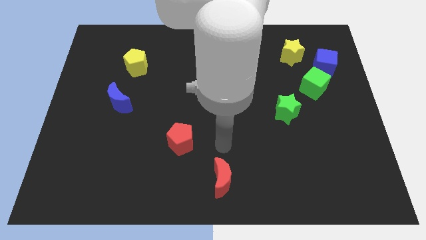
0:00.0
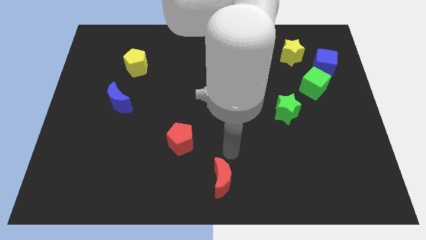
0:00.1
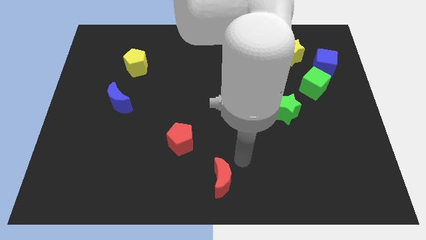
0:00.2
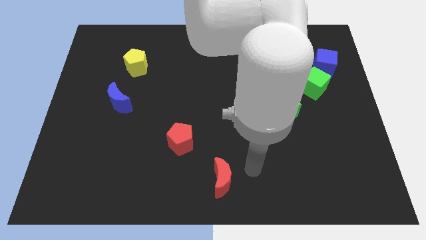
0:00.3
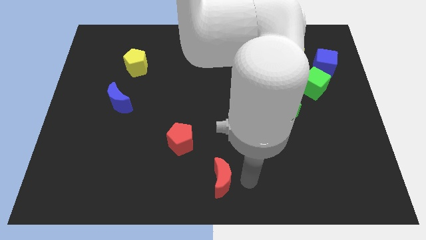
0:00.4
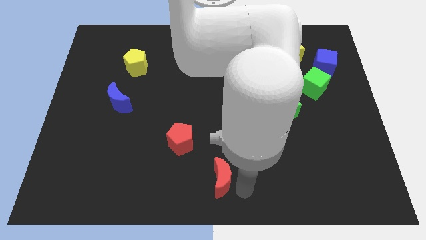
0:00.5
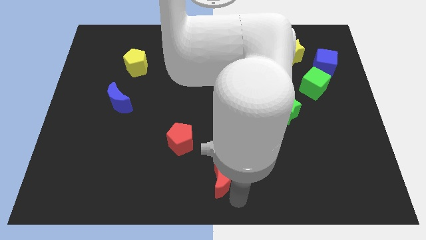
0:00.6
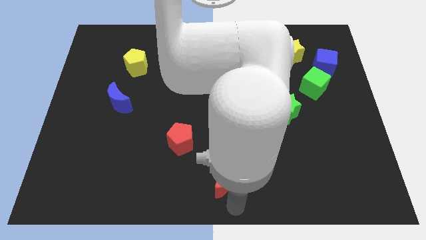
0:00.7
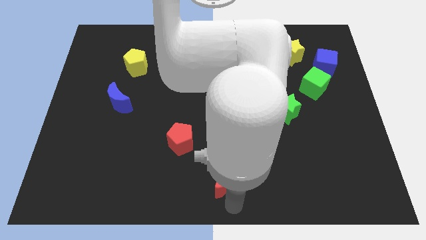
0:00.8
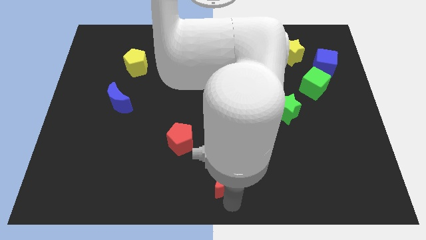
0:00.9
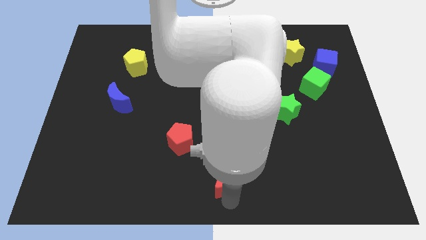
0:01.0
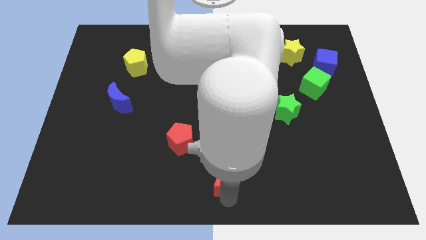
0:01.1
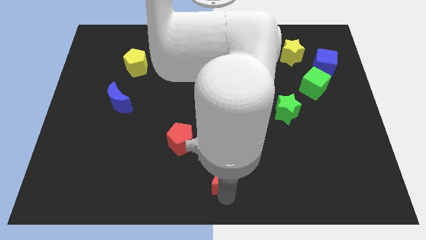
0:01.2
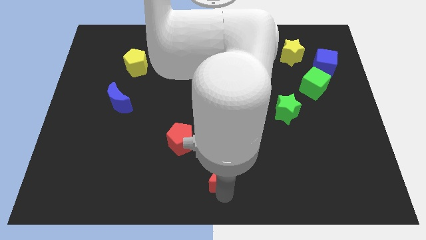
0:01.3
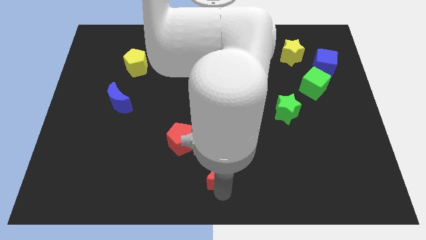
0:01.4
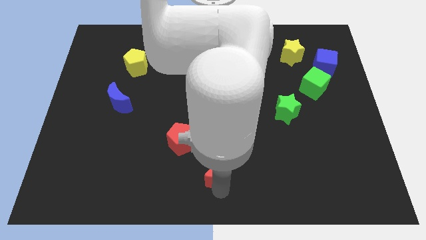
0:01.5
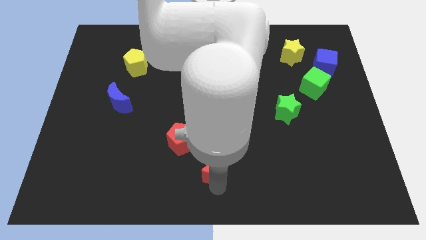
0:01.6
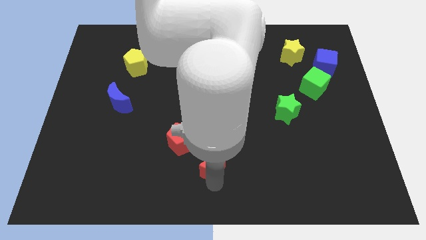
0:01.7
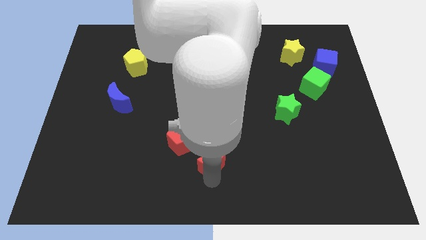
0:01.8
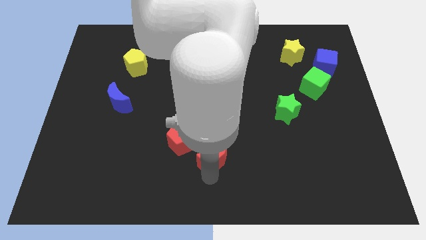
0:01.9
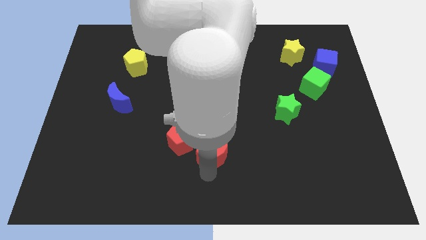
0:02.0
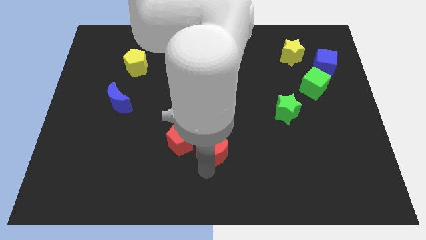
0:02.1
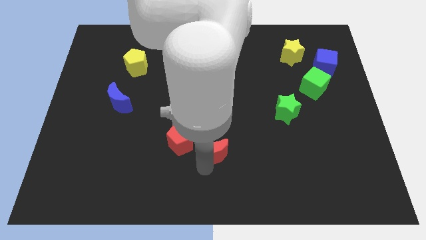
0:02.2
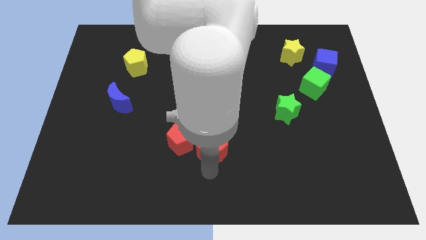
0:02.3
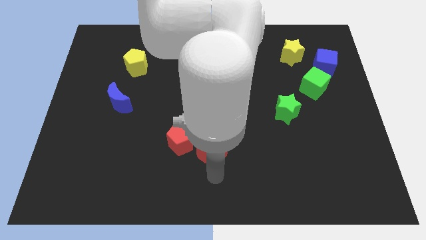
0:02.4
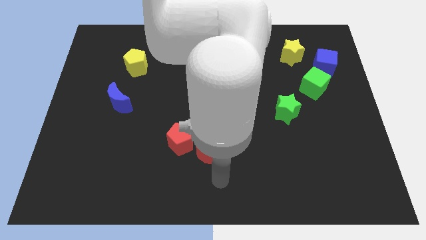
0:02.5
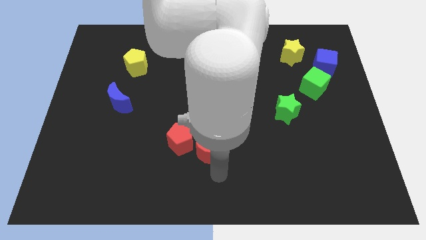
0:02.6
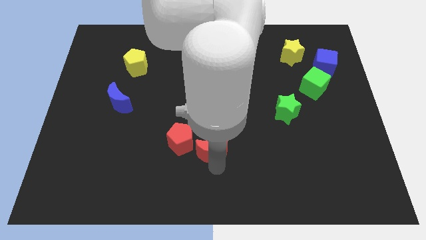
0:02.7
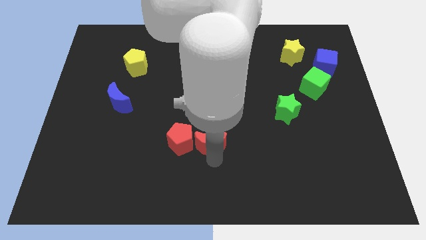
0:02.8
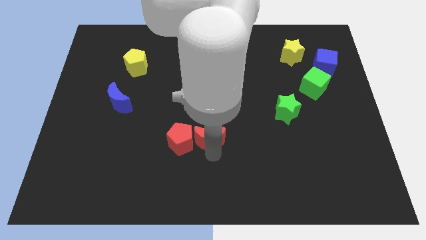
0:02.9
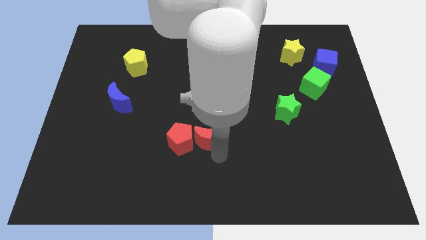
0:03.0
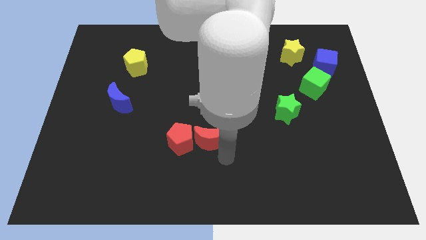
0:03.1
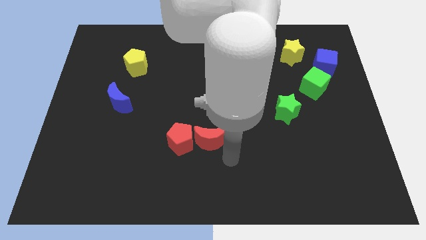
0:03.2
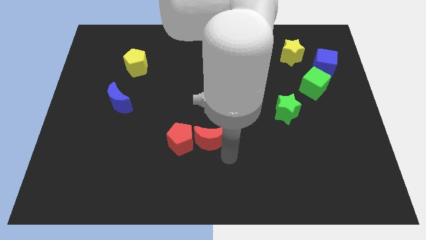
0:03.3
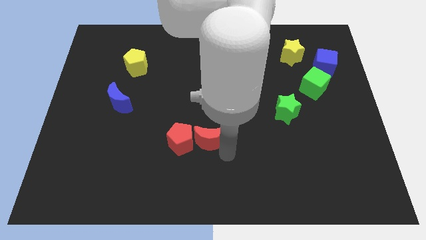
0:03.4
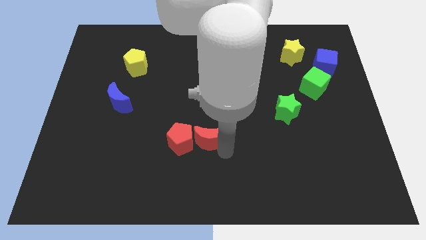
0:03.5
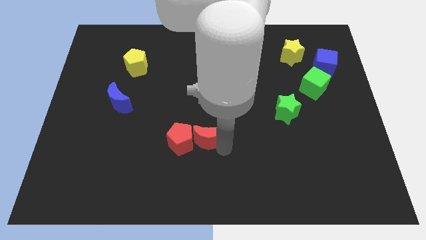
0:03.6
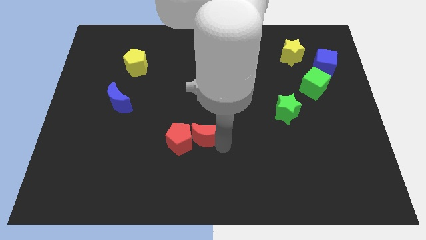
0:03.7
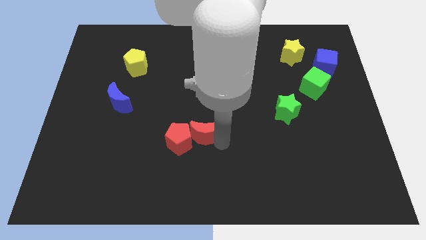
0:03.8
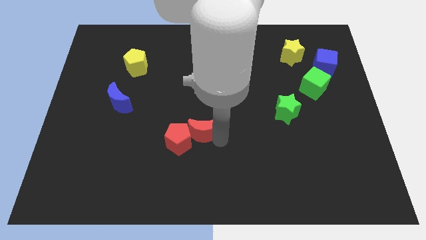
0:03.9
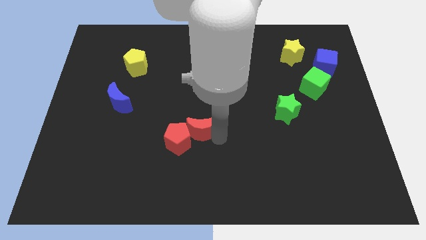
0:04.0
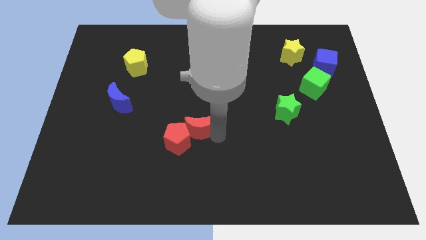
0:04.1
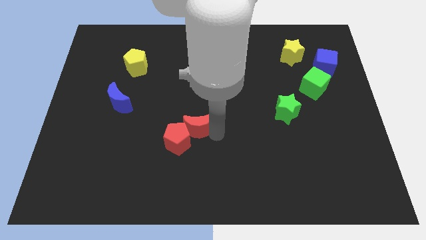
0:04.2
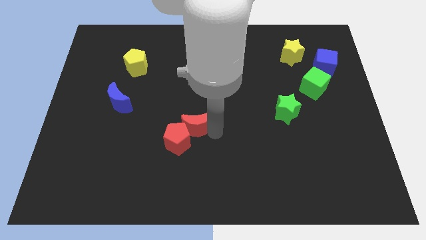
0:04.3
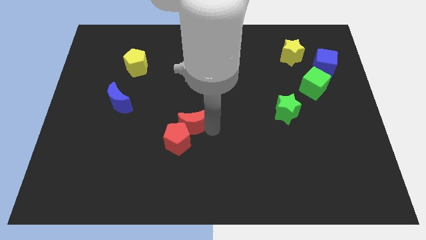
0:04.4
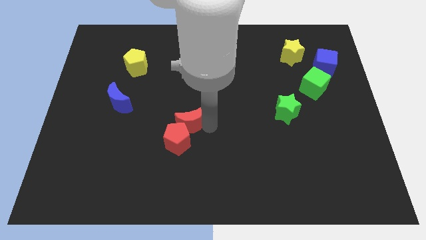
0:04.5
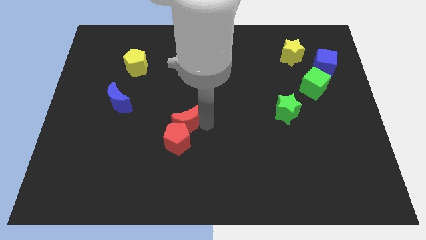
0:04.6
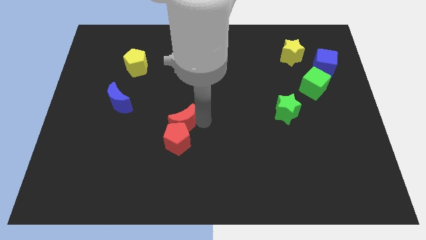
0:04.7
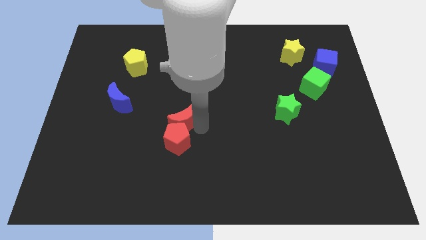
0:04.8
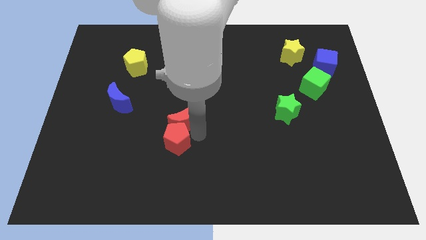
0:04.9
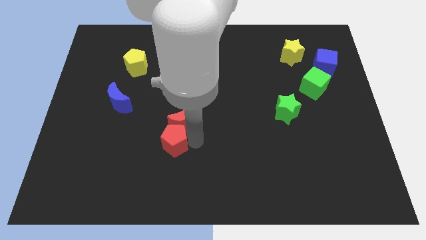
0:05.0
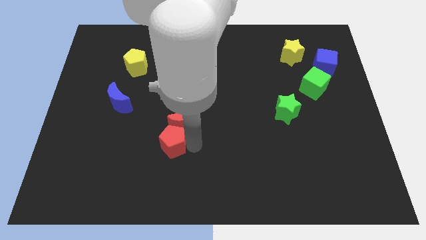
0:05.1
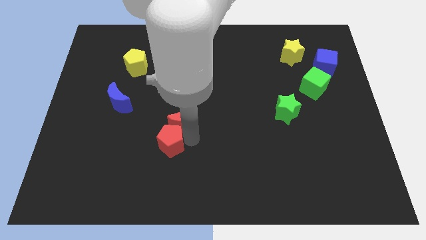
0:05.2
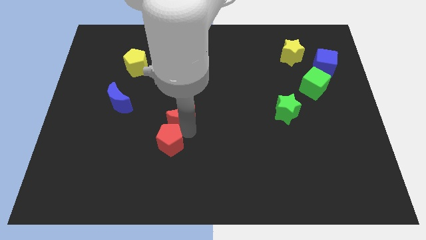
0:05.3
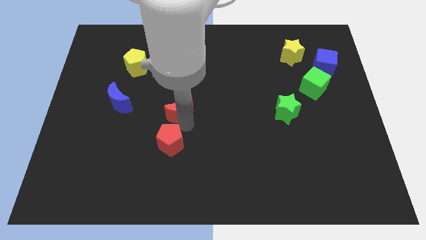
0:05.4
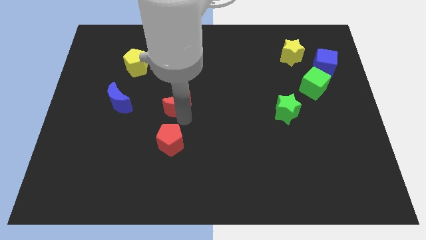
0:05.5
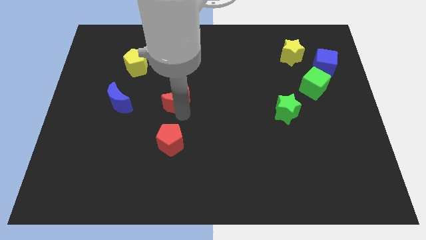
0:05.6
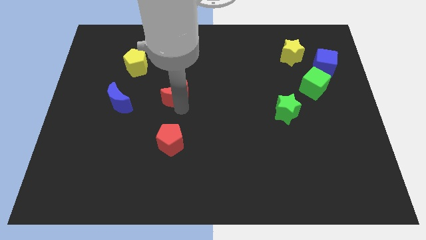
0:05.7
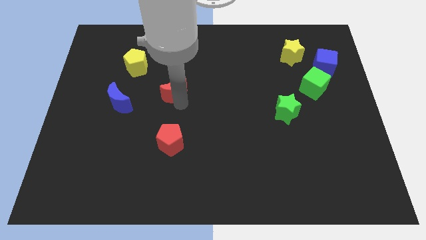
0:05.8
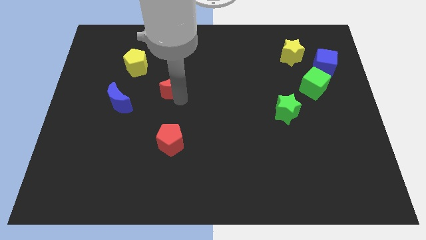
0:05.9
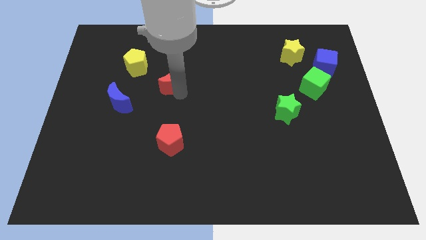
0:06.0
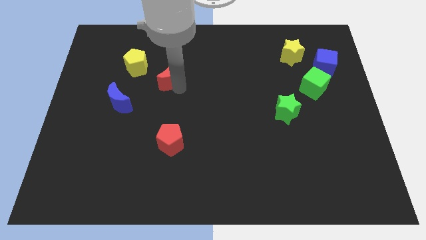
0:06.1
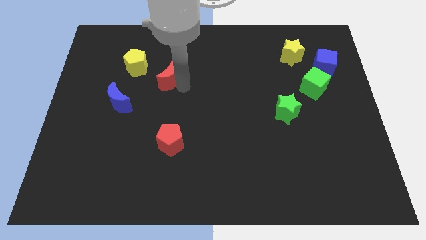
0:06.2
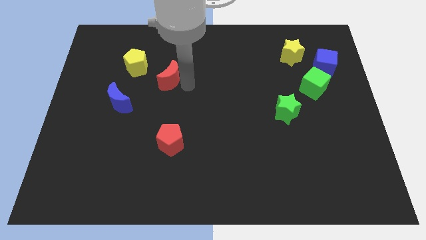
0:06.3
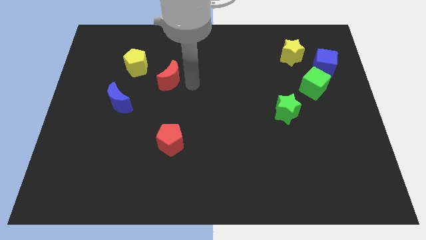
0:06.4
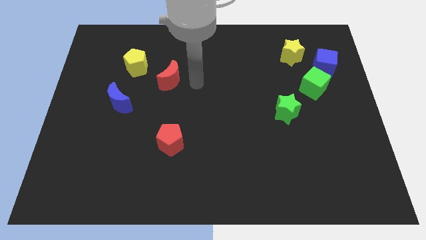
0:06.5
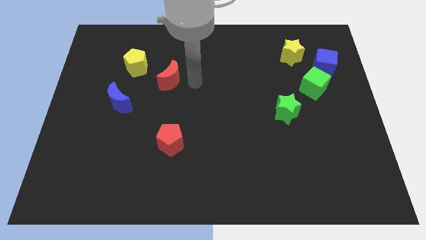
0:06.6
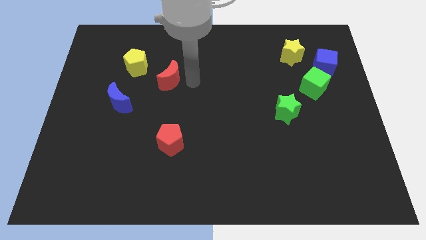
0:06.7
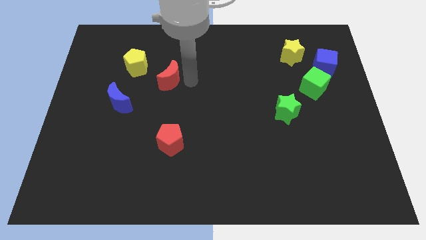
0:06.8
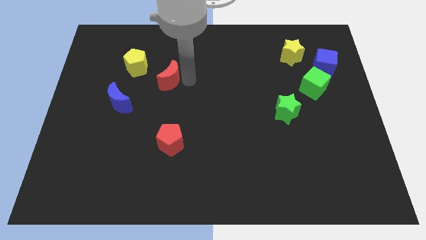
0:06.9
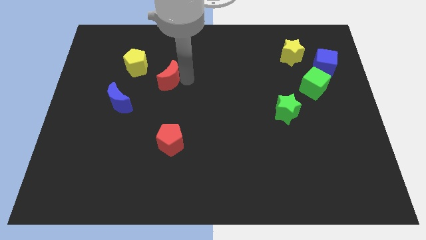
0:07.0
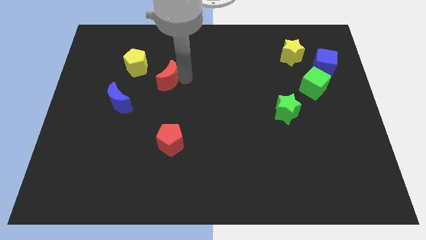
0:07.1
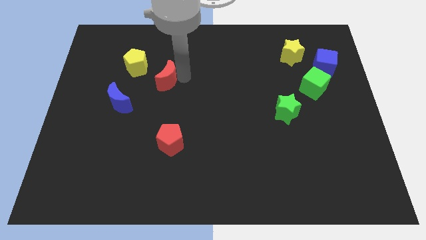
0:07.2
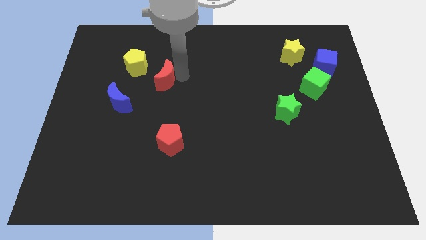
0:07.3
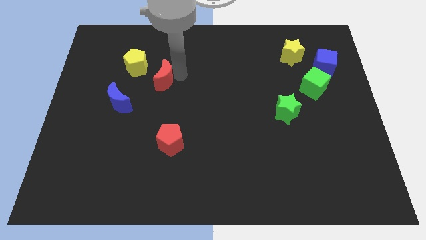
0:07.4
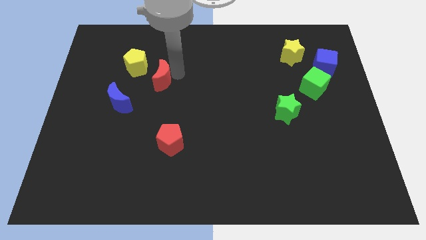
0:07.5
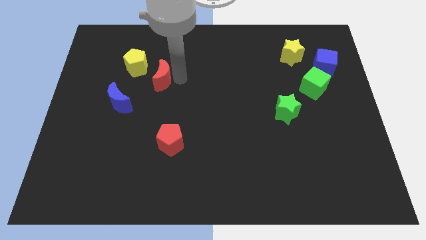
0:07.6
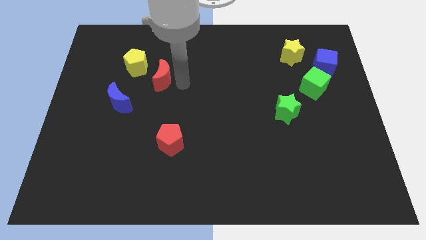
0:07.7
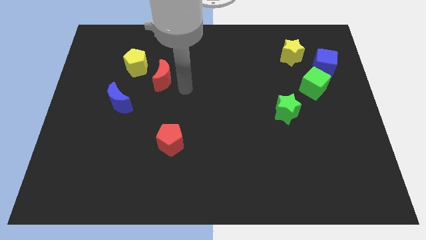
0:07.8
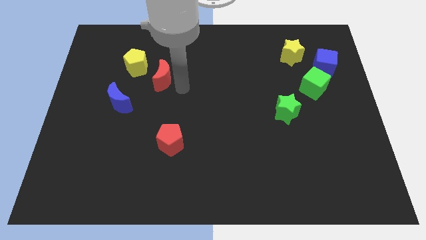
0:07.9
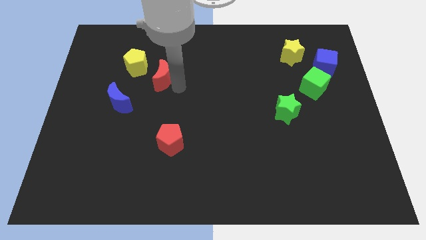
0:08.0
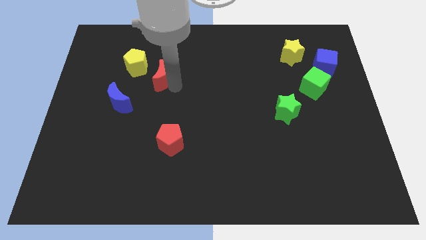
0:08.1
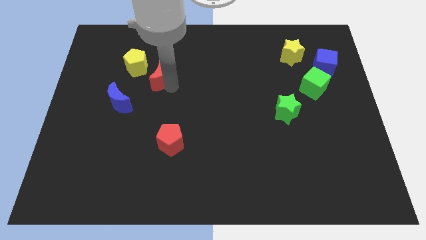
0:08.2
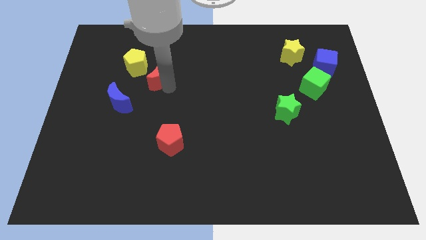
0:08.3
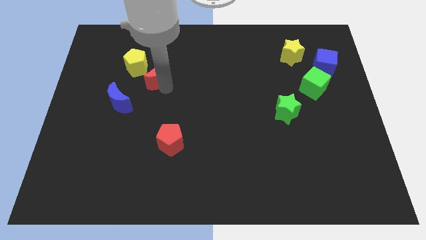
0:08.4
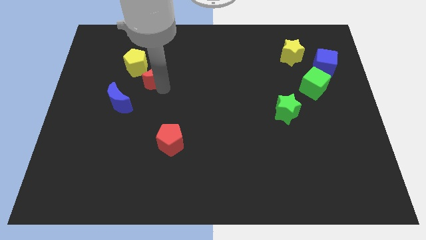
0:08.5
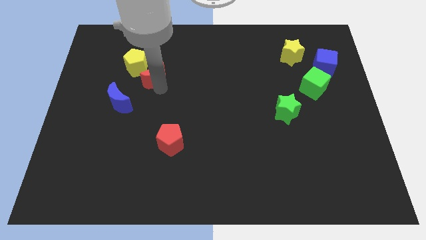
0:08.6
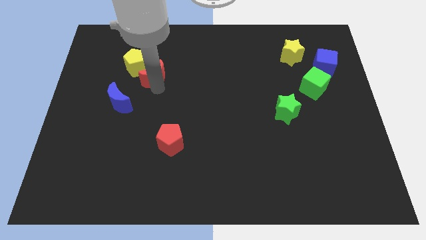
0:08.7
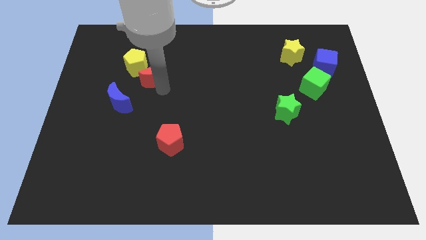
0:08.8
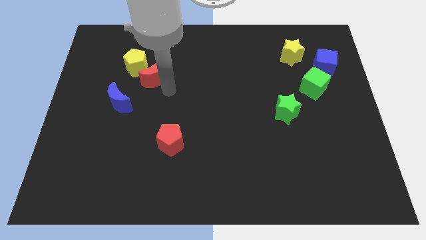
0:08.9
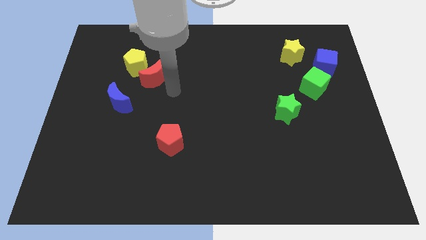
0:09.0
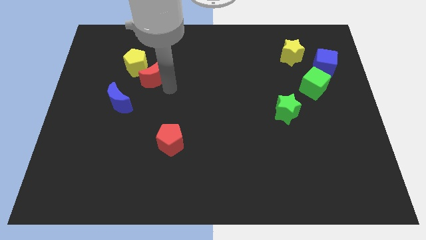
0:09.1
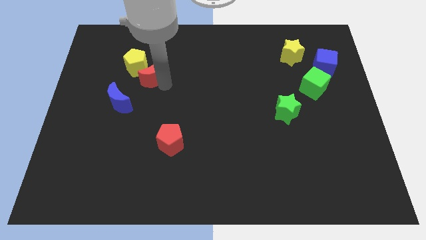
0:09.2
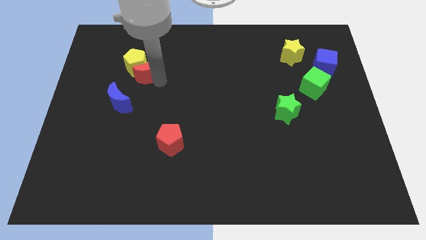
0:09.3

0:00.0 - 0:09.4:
slide the red moon towards the yellow pentagon
